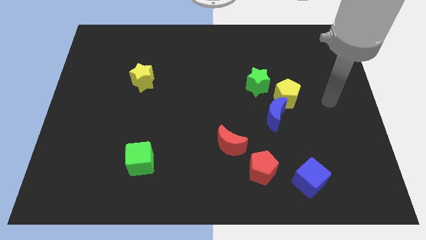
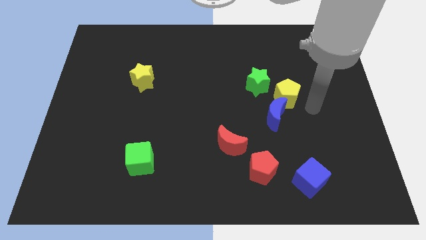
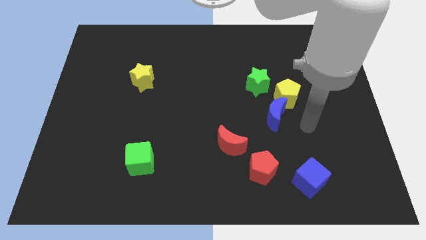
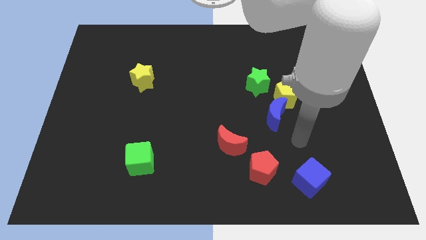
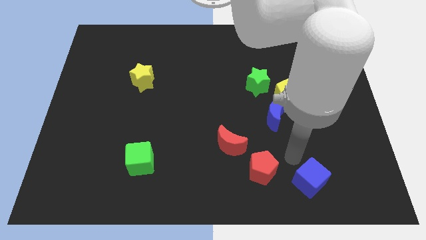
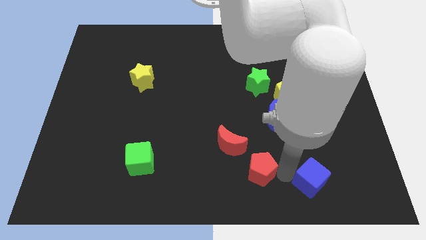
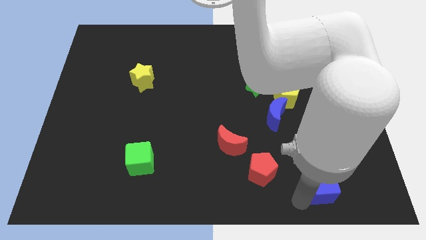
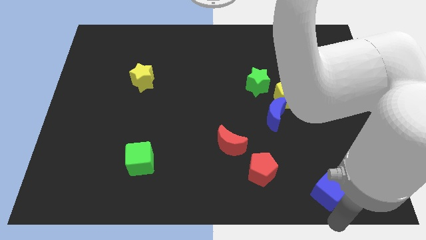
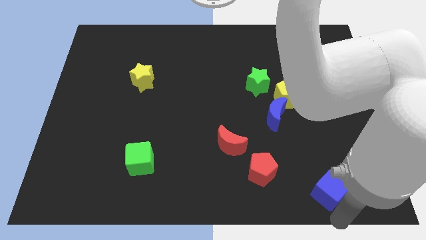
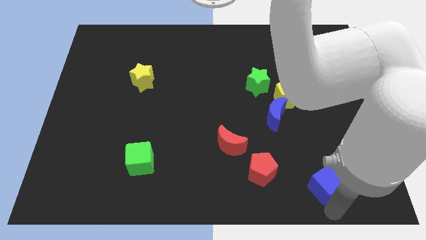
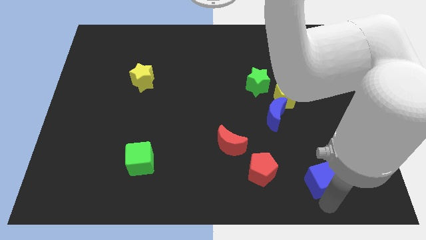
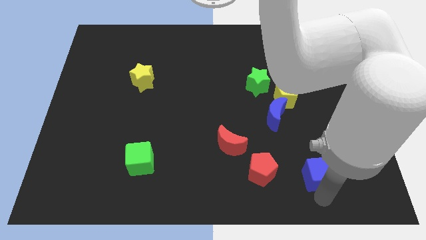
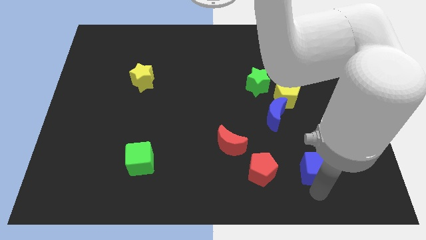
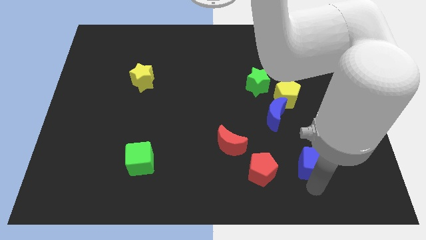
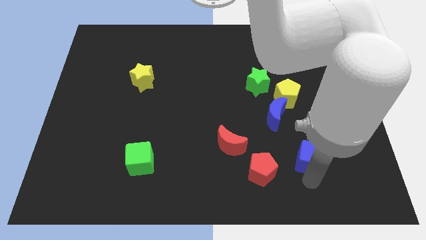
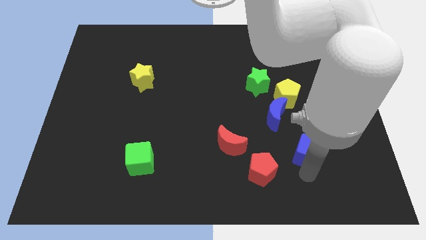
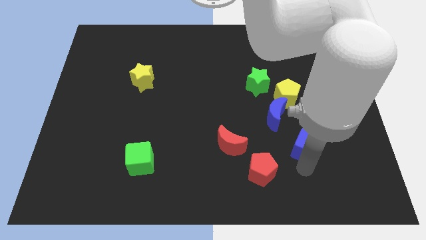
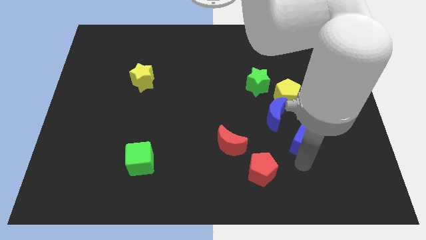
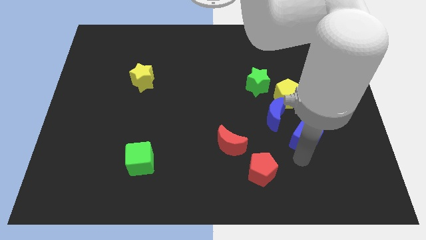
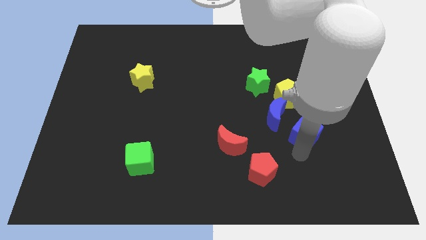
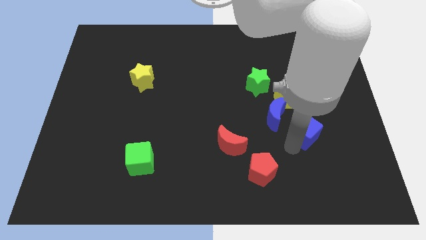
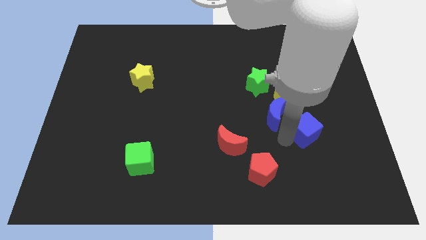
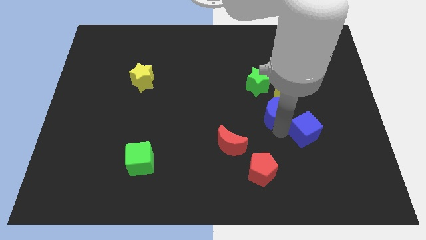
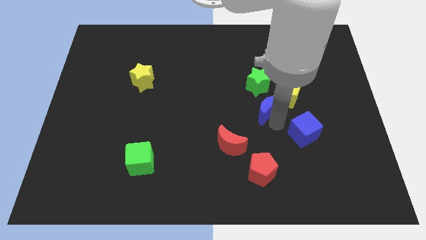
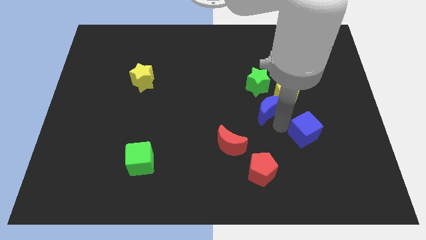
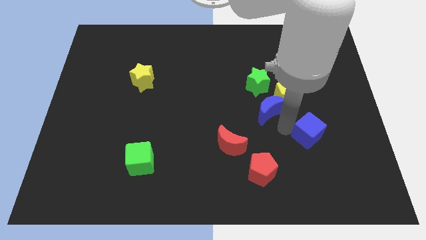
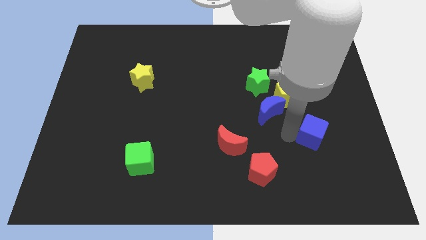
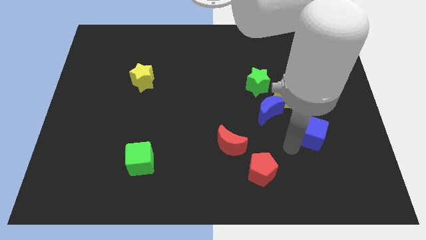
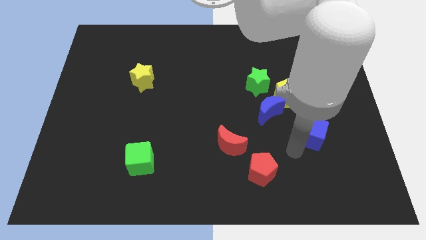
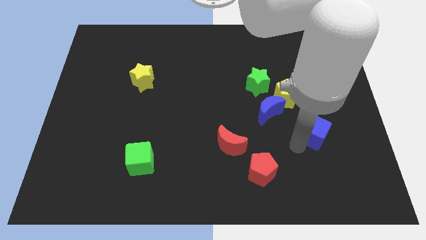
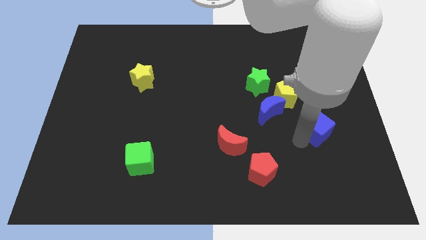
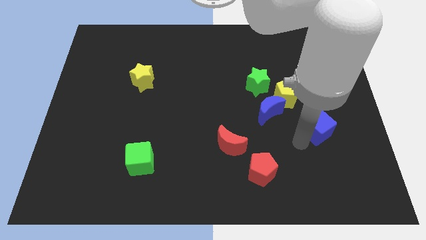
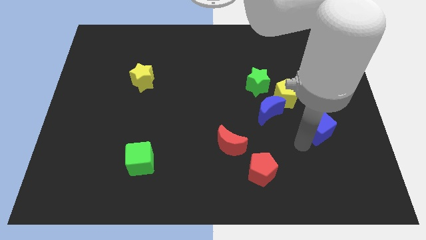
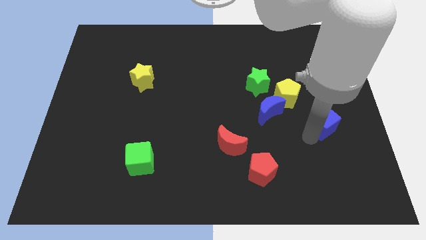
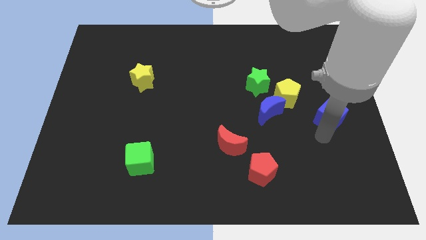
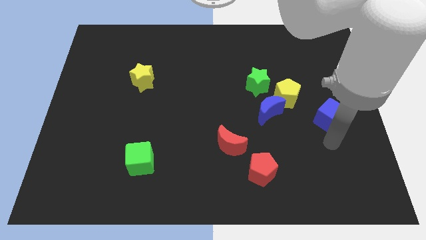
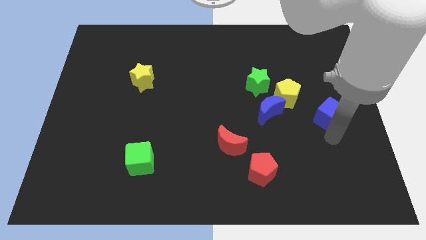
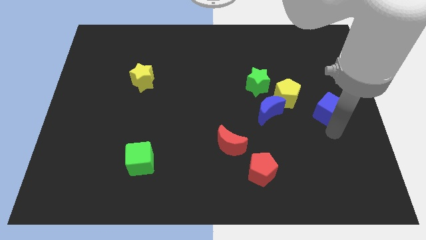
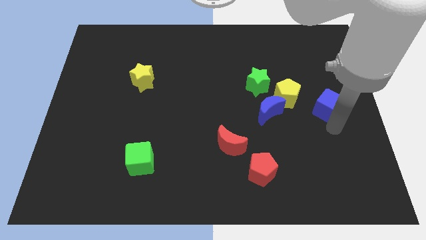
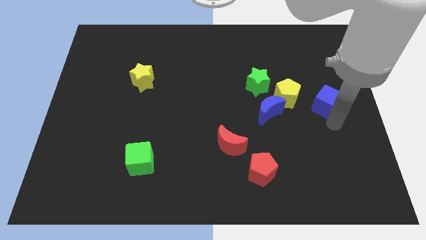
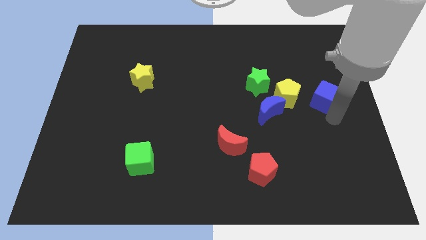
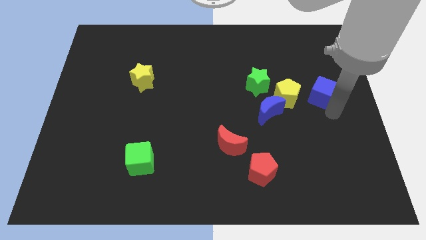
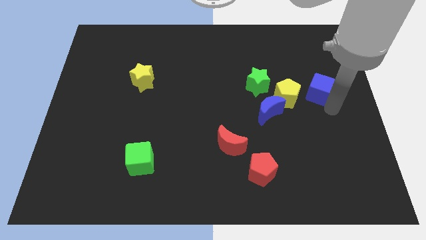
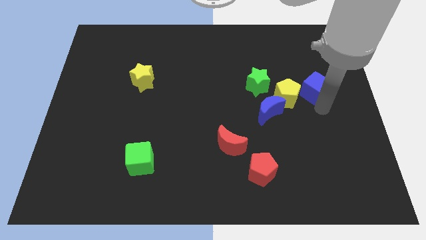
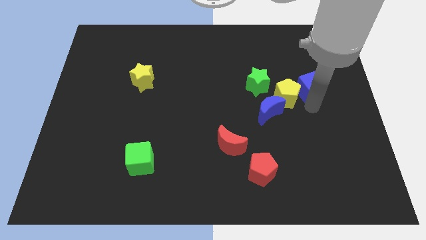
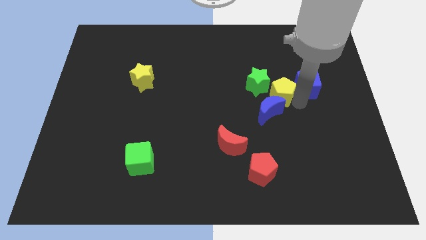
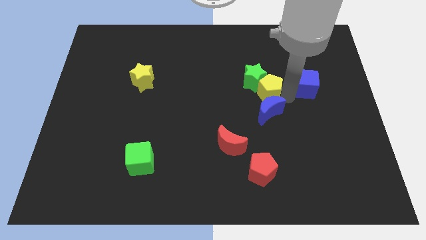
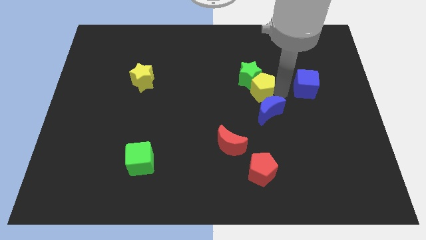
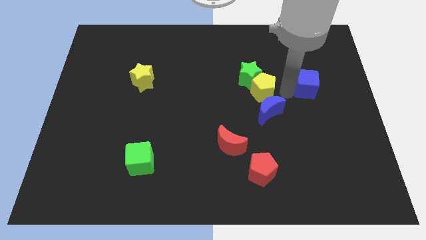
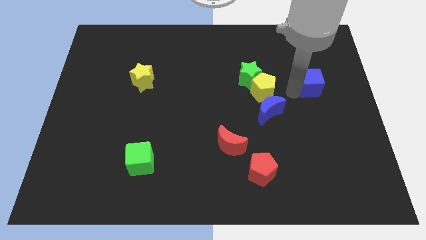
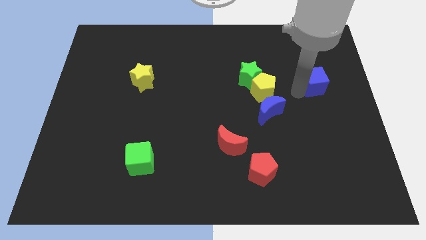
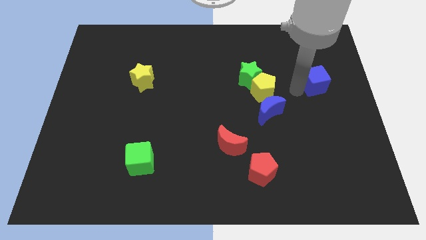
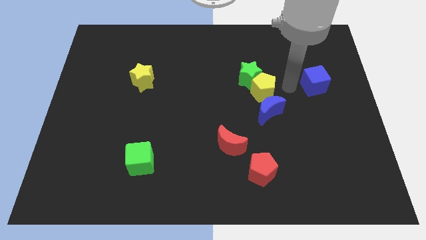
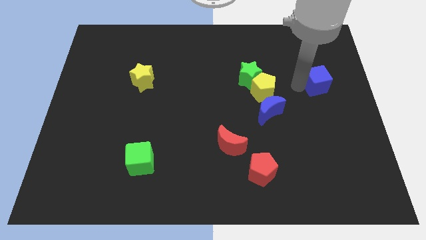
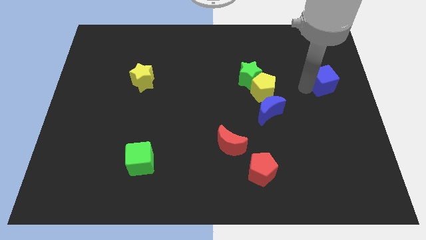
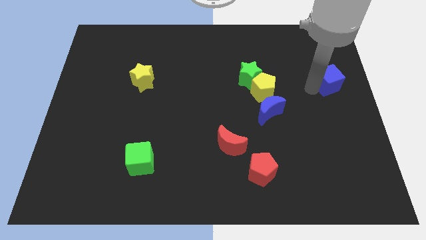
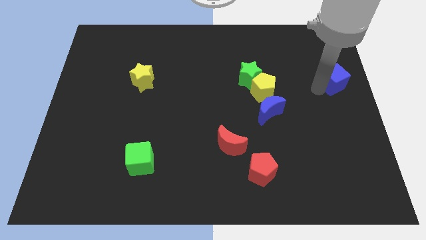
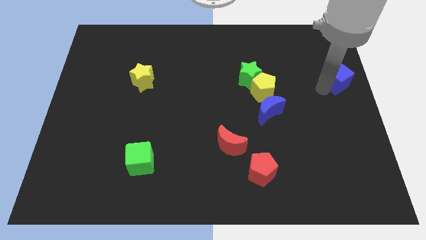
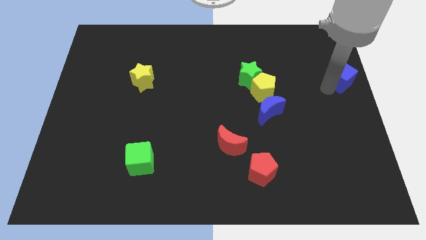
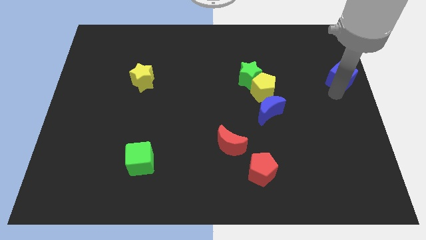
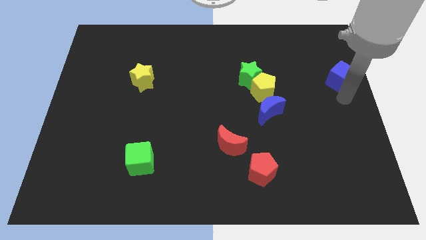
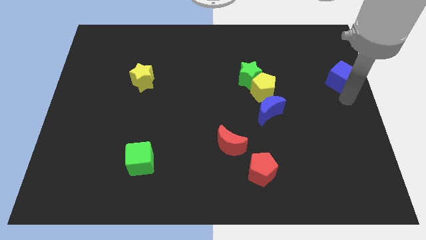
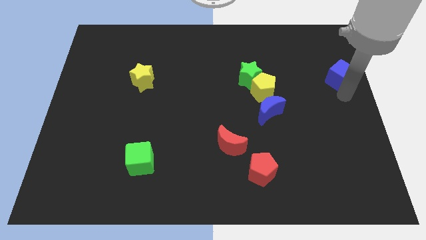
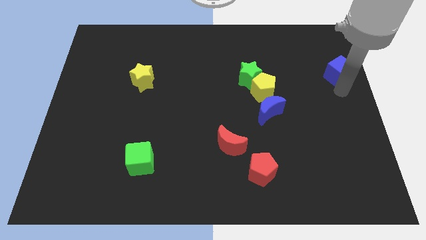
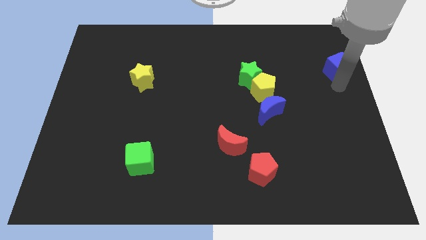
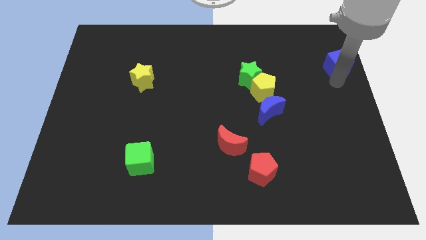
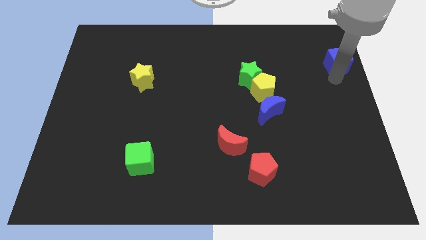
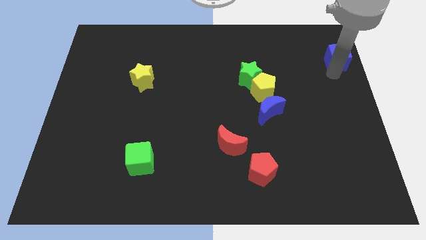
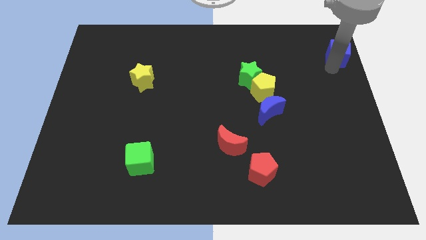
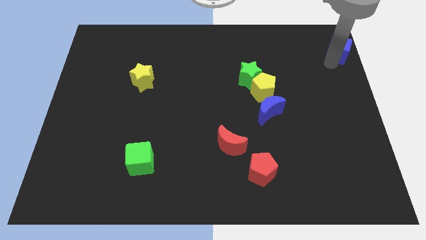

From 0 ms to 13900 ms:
slide the blue cube to the top right
